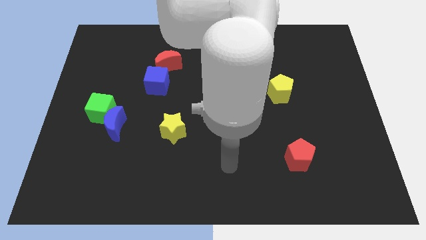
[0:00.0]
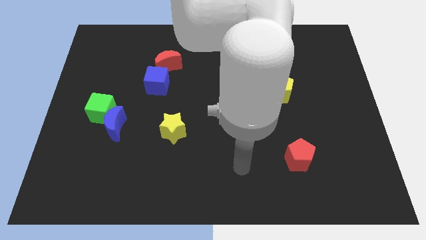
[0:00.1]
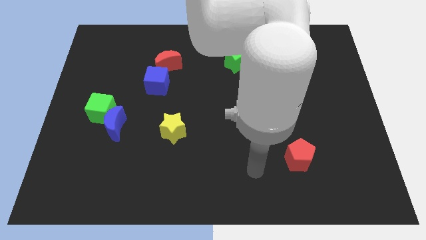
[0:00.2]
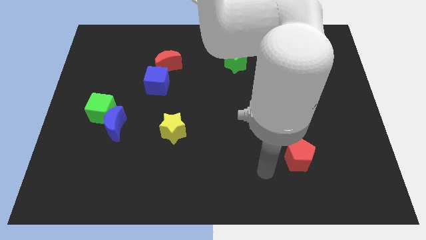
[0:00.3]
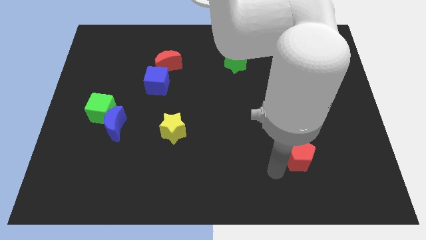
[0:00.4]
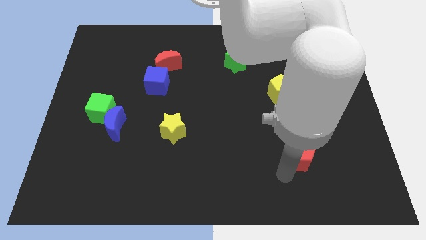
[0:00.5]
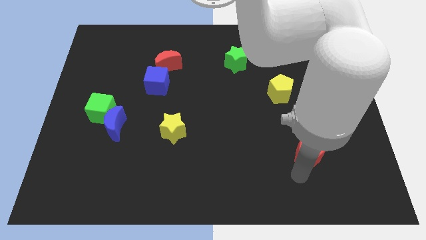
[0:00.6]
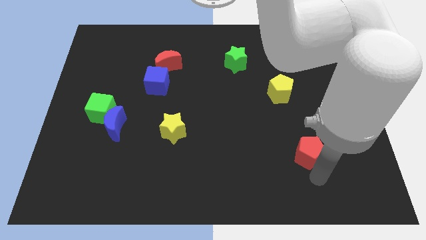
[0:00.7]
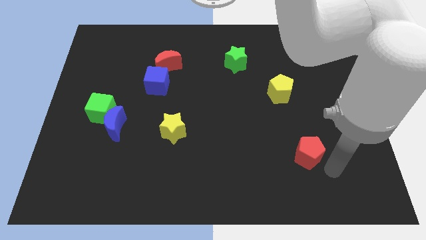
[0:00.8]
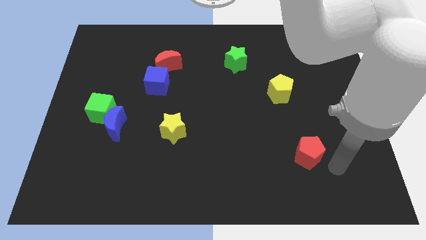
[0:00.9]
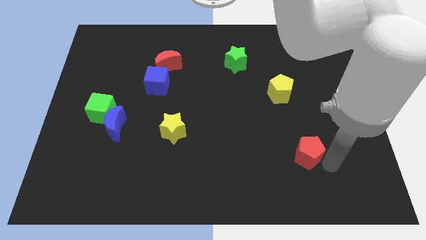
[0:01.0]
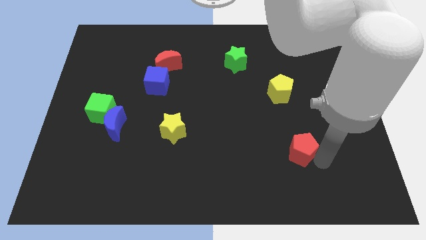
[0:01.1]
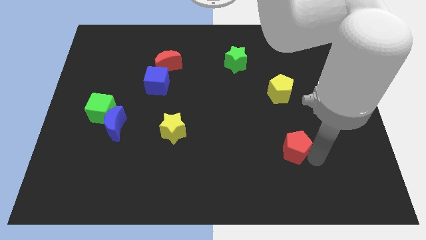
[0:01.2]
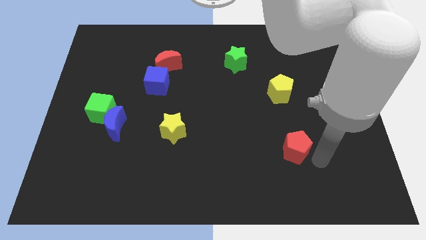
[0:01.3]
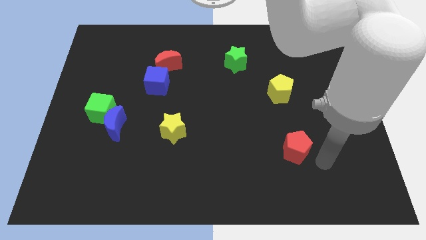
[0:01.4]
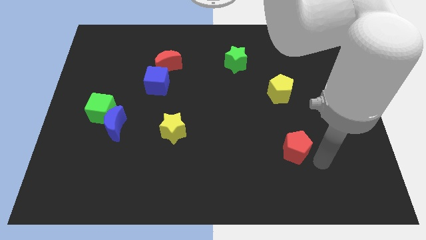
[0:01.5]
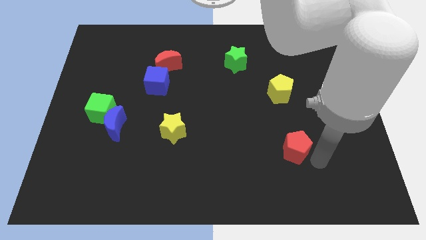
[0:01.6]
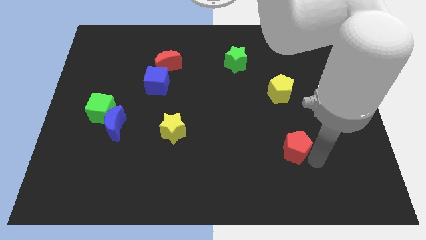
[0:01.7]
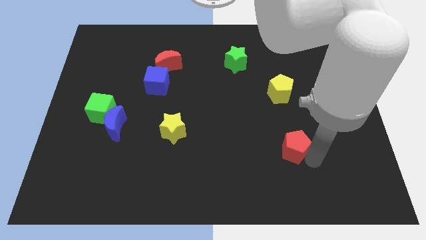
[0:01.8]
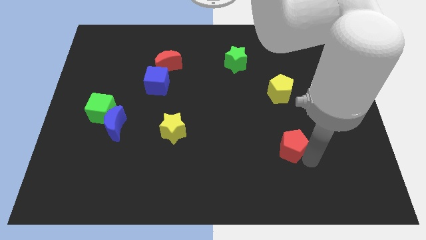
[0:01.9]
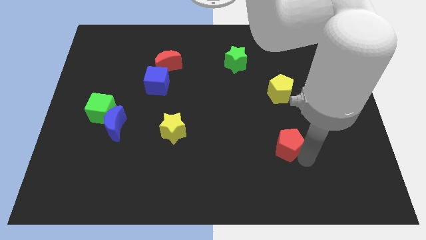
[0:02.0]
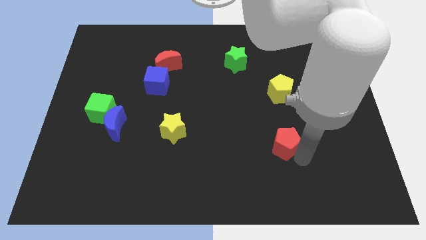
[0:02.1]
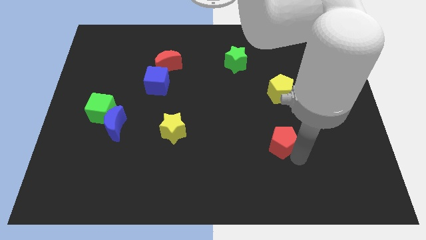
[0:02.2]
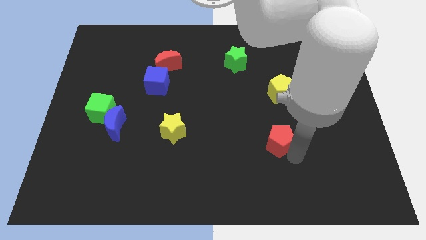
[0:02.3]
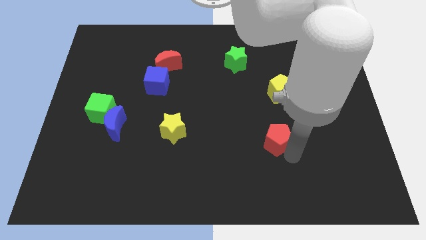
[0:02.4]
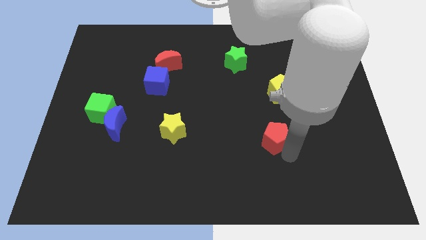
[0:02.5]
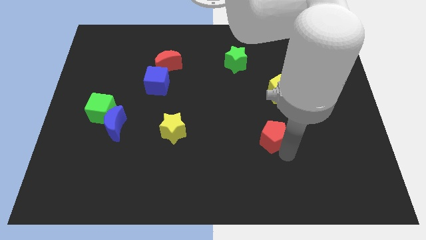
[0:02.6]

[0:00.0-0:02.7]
push the red pentagon upwards and left somewhat

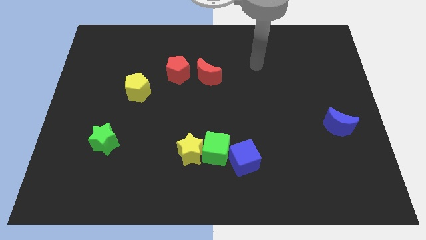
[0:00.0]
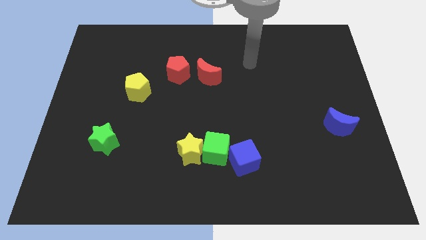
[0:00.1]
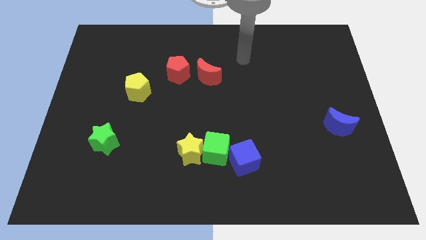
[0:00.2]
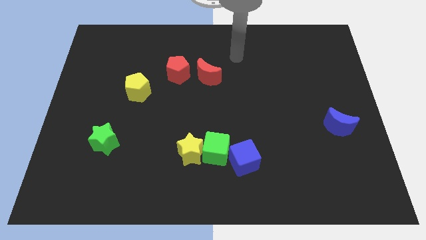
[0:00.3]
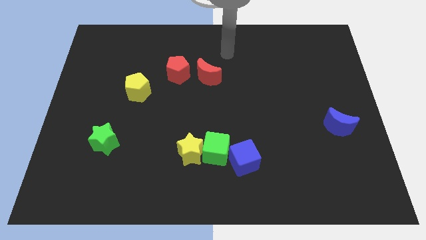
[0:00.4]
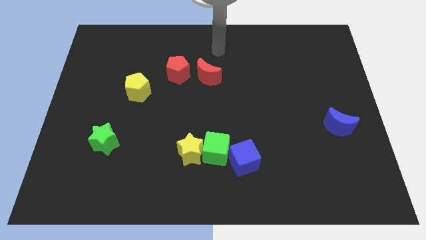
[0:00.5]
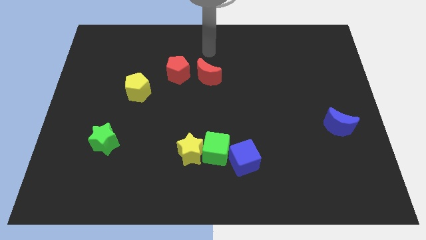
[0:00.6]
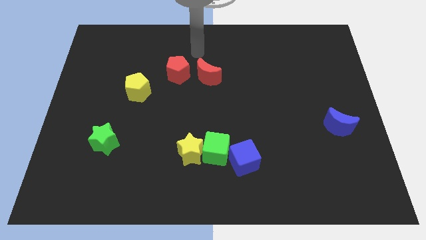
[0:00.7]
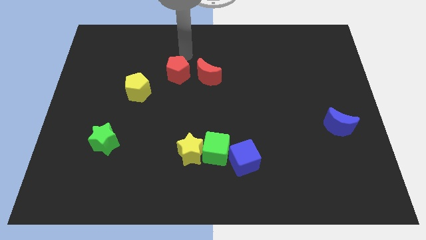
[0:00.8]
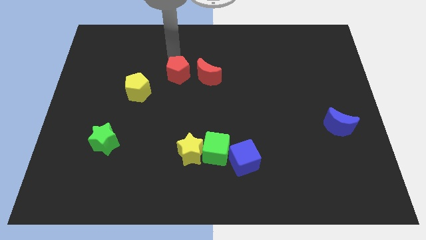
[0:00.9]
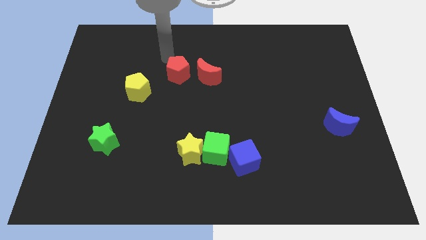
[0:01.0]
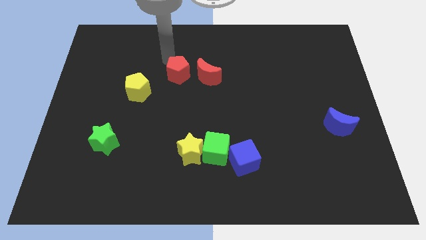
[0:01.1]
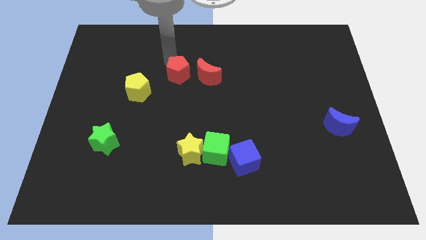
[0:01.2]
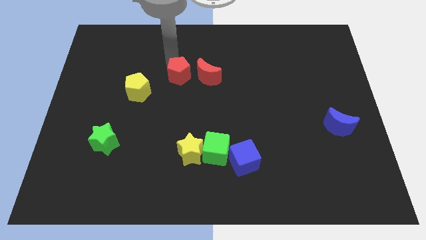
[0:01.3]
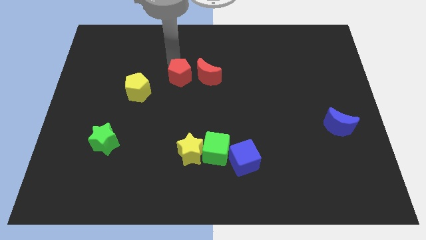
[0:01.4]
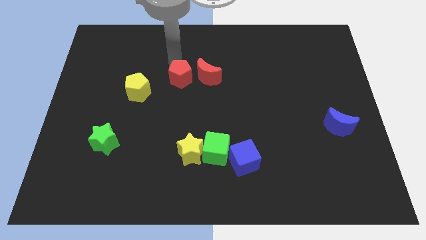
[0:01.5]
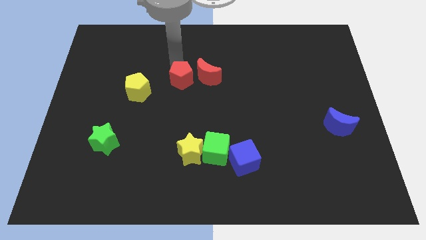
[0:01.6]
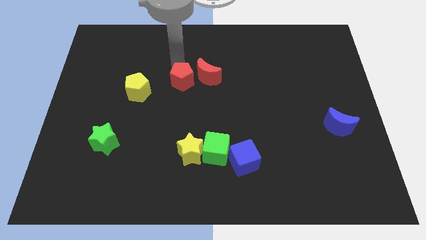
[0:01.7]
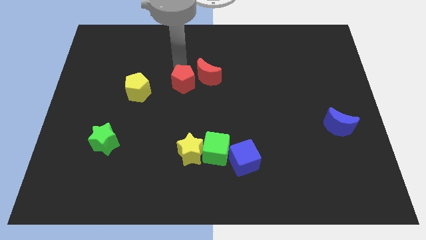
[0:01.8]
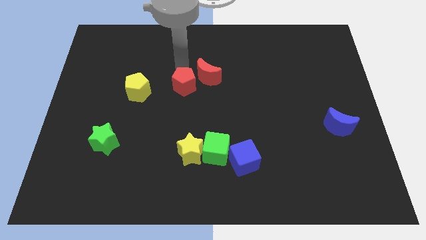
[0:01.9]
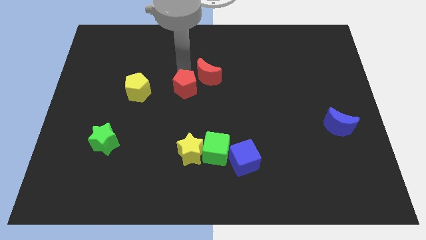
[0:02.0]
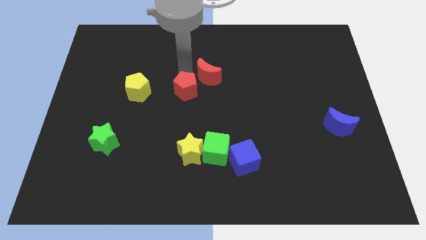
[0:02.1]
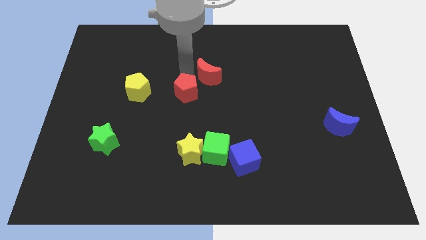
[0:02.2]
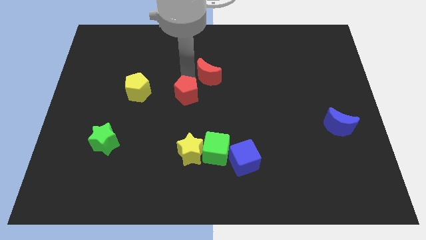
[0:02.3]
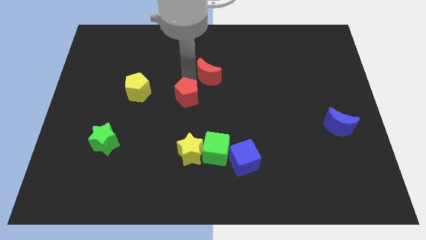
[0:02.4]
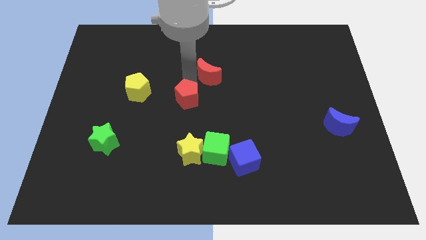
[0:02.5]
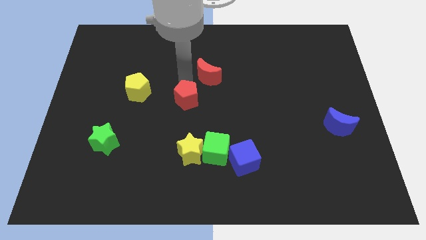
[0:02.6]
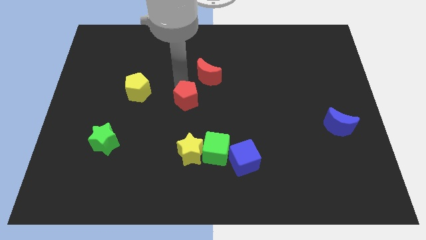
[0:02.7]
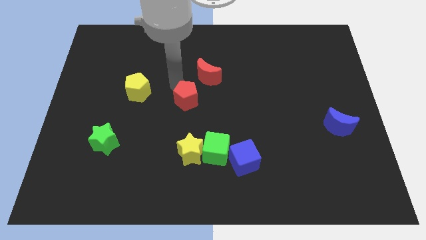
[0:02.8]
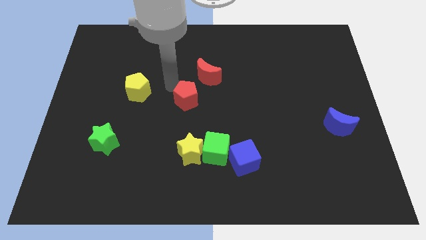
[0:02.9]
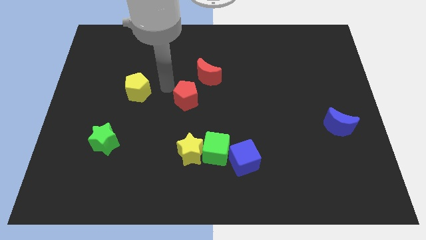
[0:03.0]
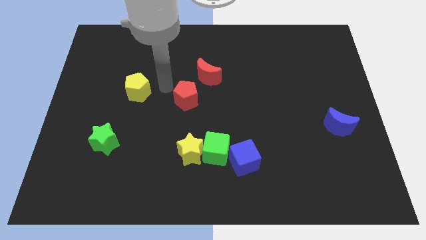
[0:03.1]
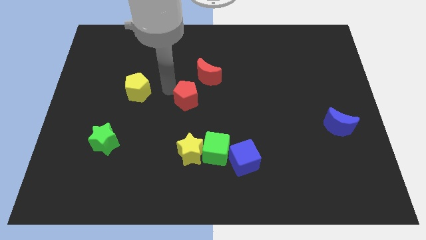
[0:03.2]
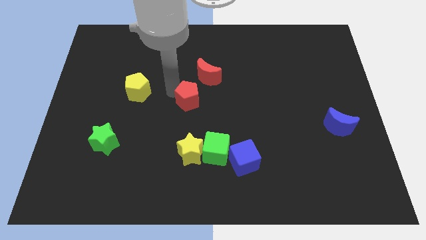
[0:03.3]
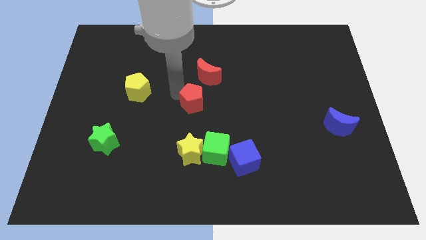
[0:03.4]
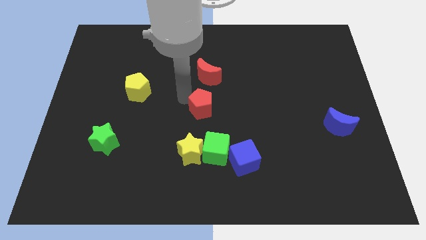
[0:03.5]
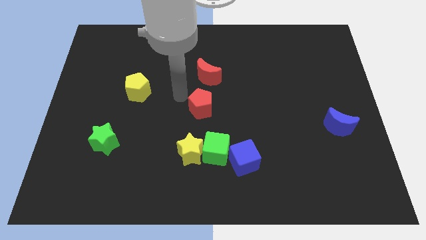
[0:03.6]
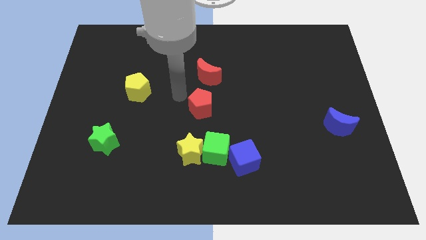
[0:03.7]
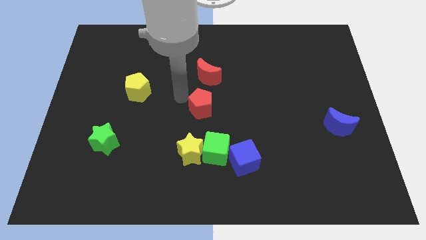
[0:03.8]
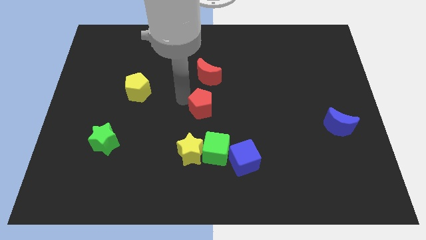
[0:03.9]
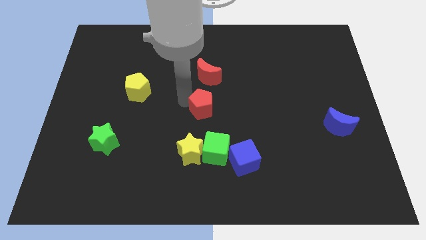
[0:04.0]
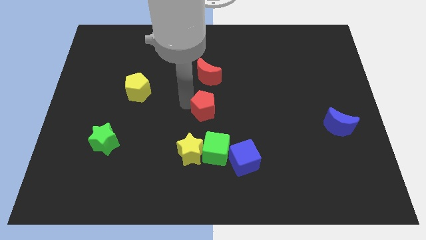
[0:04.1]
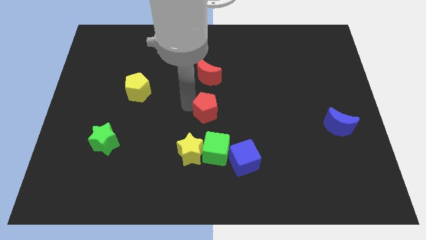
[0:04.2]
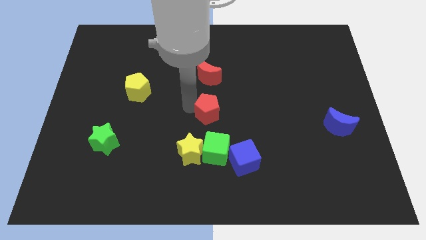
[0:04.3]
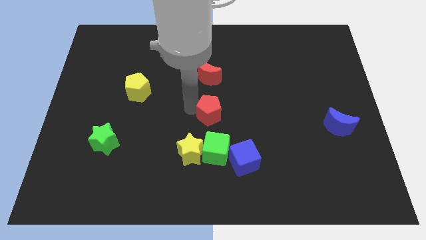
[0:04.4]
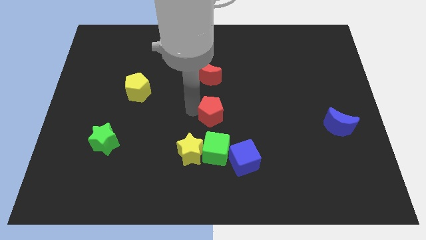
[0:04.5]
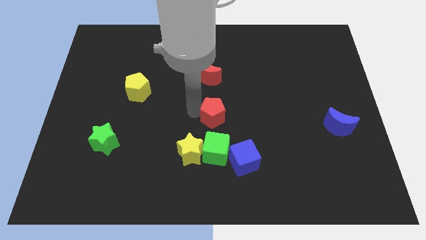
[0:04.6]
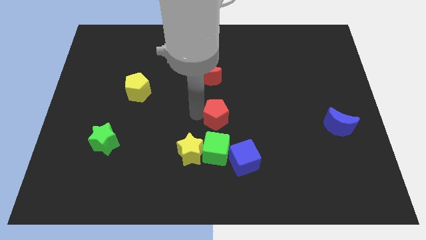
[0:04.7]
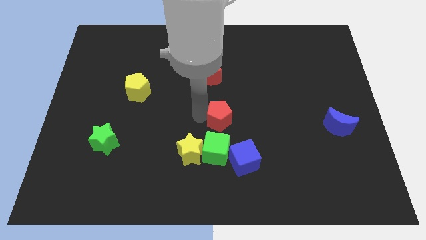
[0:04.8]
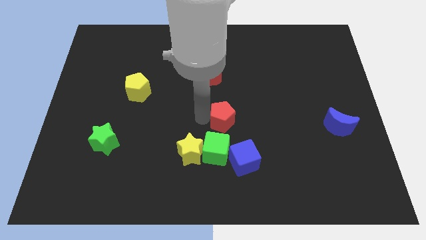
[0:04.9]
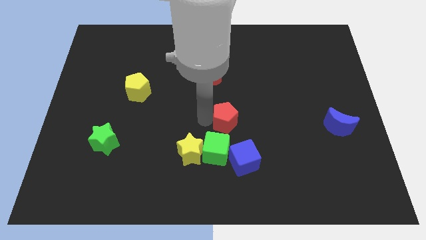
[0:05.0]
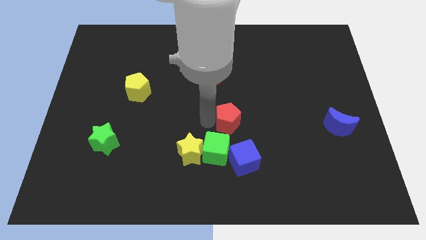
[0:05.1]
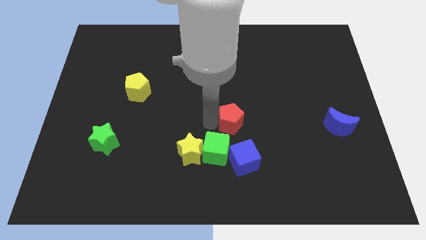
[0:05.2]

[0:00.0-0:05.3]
move the red pentagon diagonally down and right
